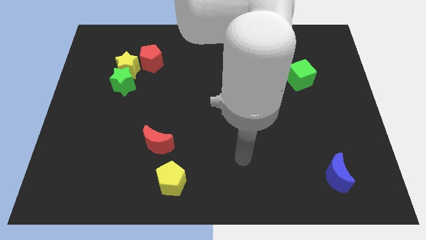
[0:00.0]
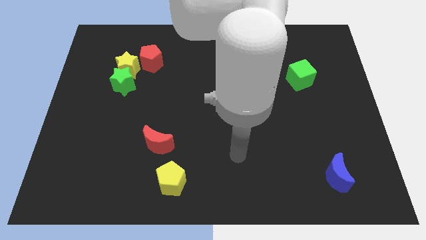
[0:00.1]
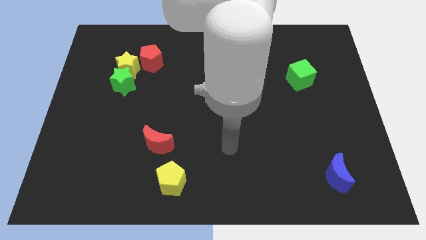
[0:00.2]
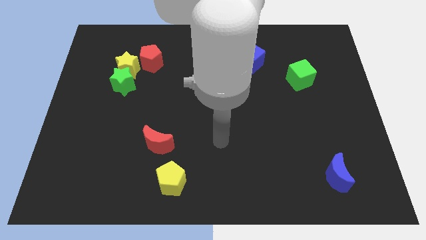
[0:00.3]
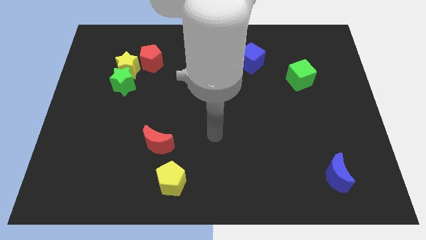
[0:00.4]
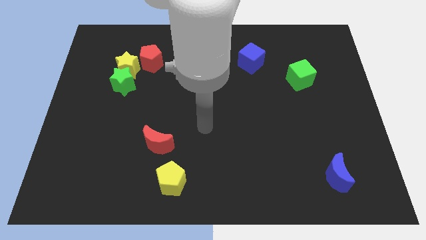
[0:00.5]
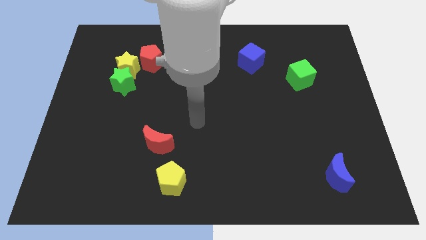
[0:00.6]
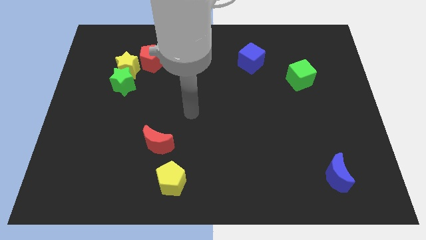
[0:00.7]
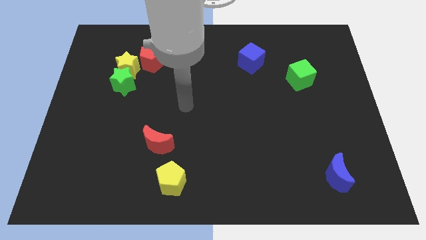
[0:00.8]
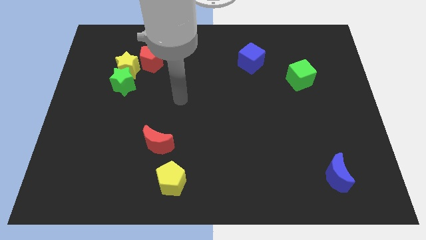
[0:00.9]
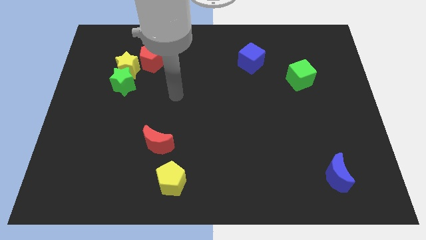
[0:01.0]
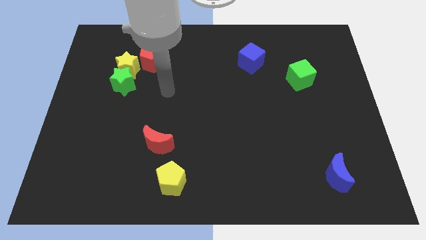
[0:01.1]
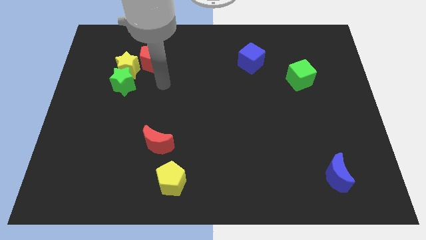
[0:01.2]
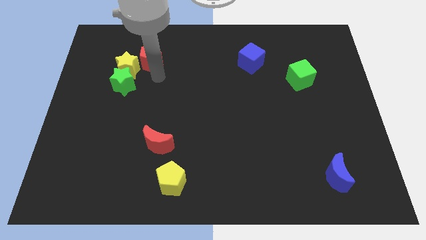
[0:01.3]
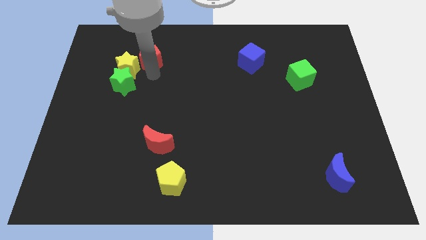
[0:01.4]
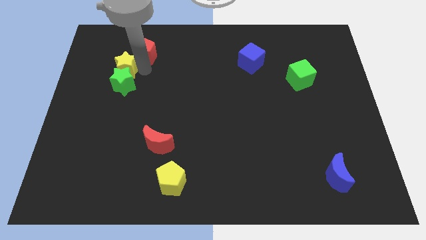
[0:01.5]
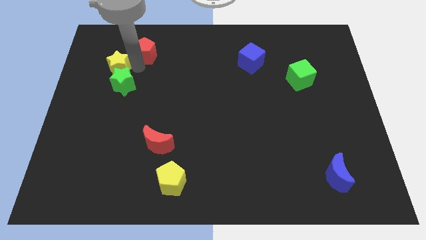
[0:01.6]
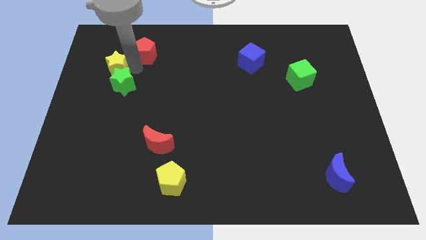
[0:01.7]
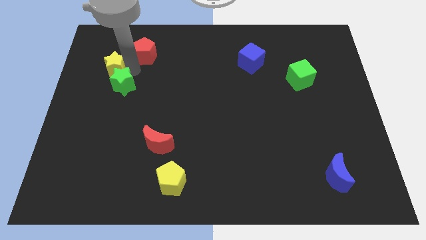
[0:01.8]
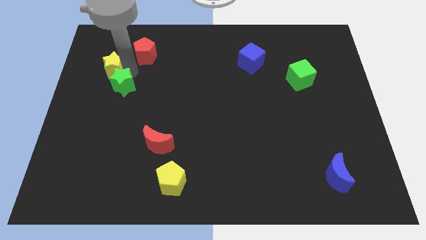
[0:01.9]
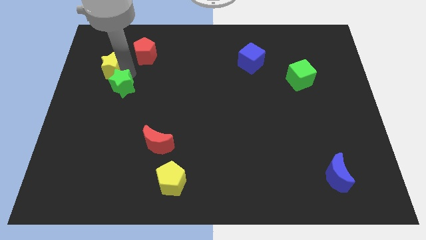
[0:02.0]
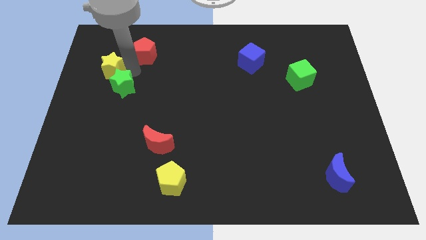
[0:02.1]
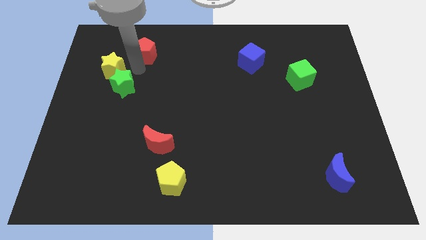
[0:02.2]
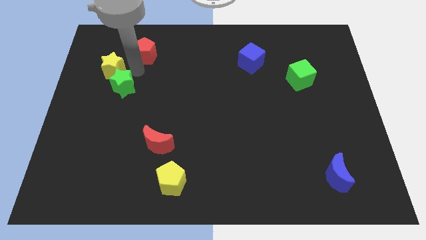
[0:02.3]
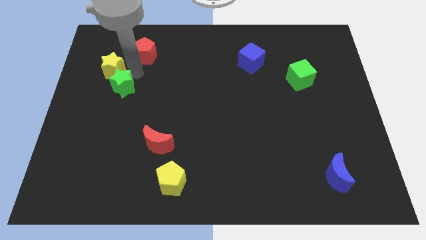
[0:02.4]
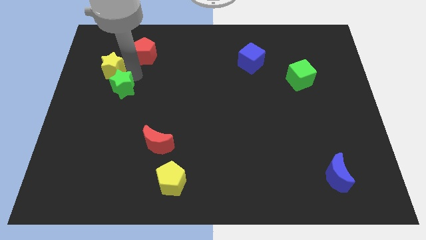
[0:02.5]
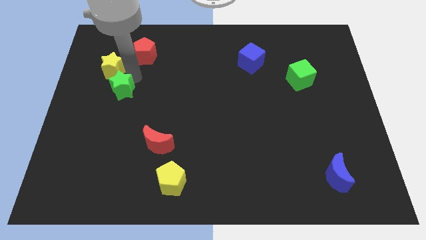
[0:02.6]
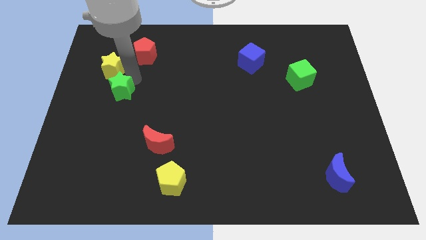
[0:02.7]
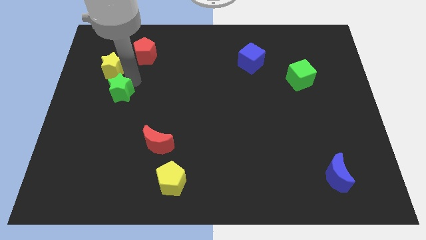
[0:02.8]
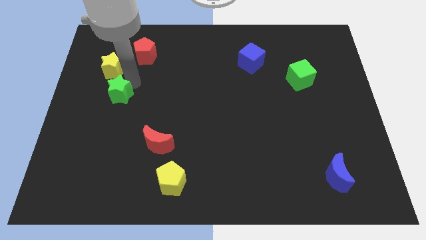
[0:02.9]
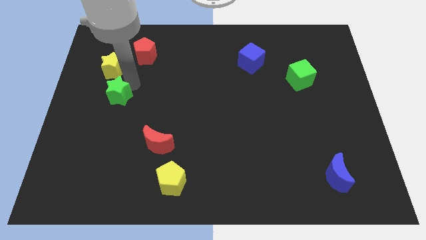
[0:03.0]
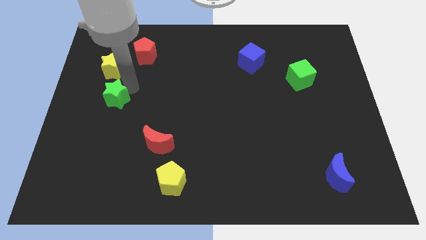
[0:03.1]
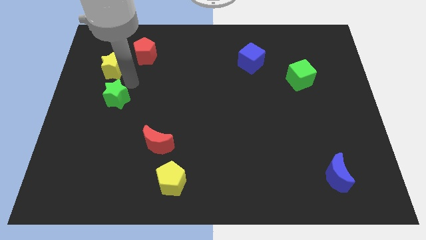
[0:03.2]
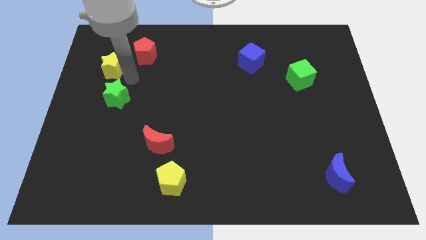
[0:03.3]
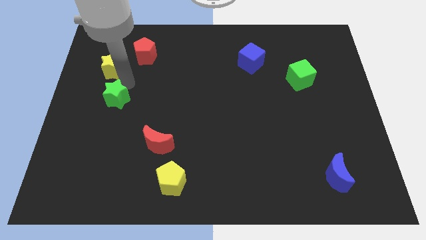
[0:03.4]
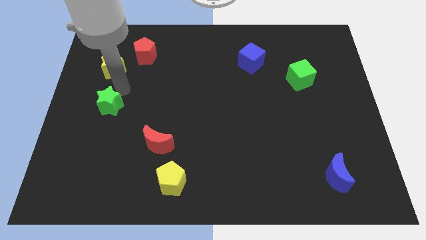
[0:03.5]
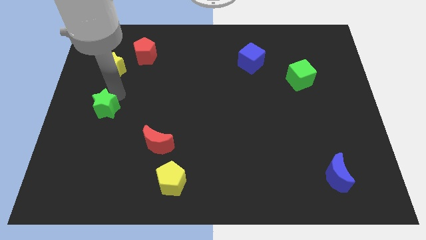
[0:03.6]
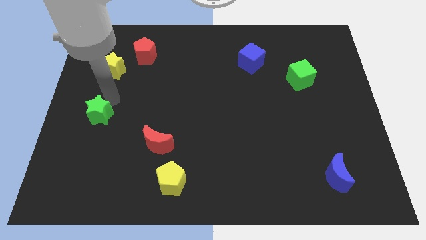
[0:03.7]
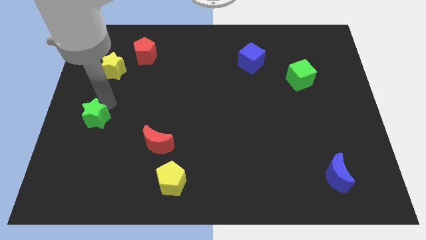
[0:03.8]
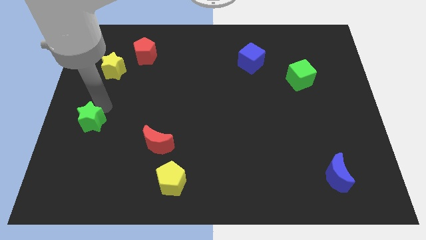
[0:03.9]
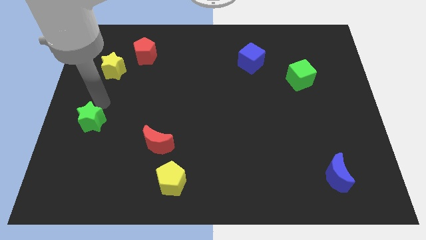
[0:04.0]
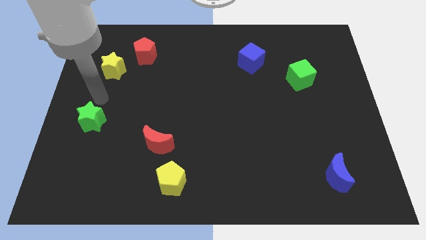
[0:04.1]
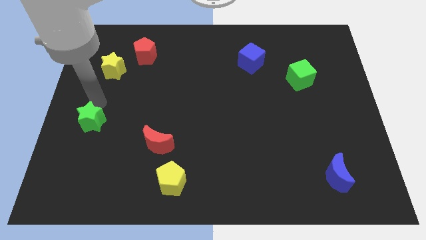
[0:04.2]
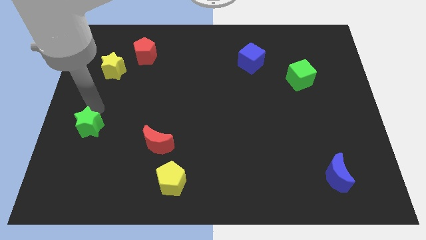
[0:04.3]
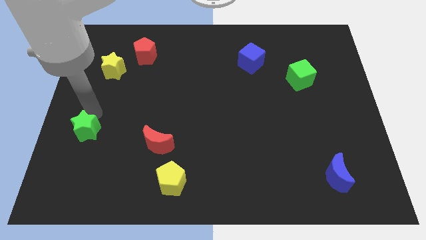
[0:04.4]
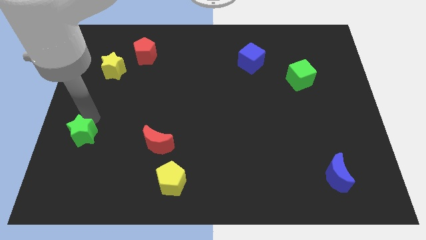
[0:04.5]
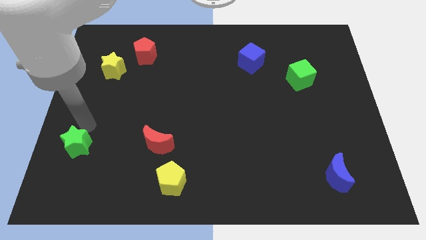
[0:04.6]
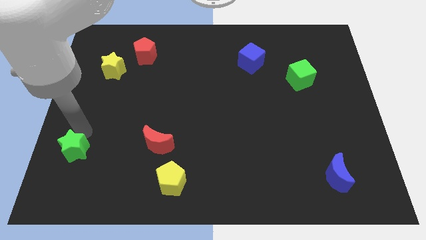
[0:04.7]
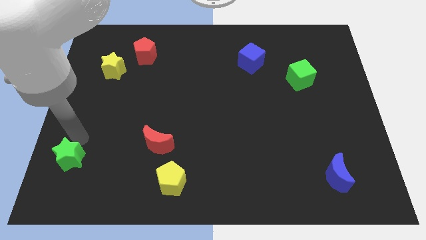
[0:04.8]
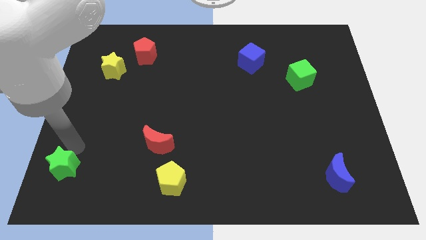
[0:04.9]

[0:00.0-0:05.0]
put the green star to the lower left corner

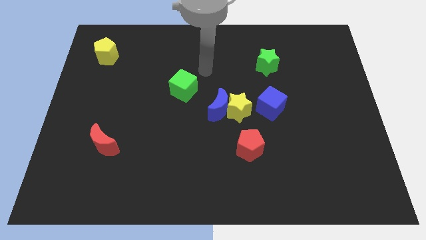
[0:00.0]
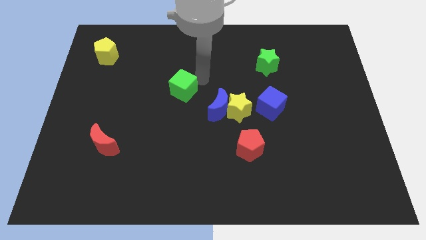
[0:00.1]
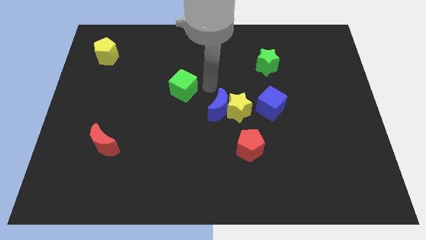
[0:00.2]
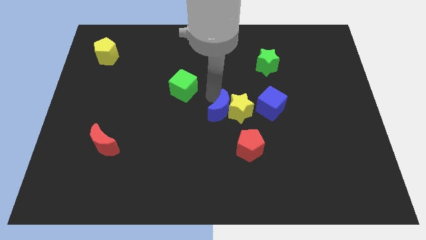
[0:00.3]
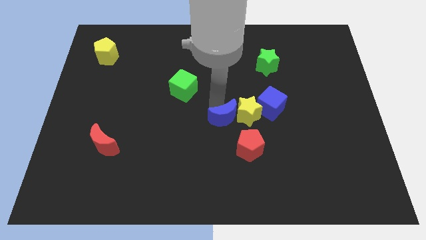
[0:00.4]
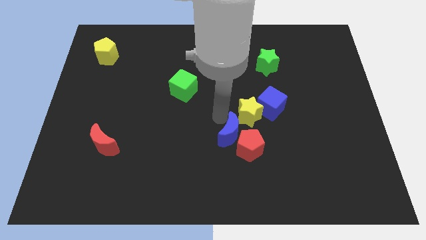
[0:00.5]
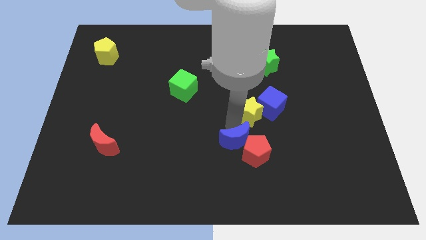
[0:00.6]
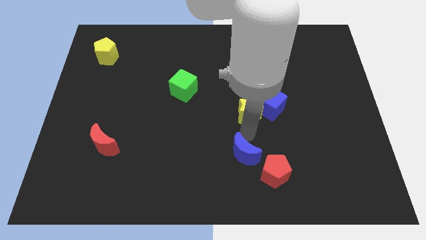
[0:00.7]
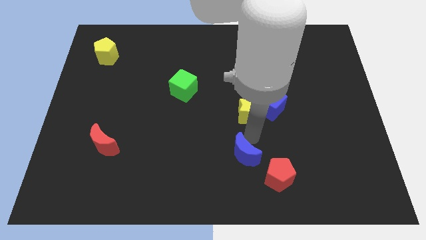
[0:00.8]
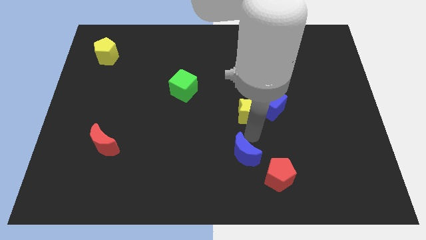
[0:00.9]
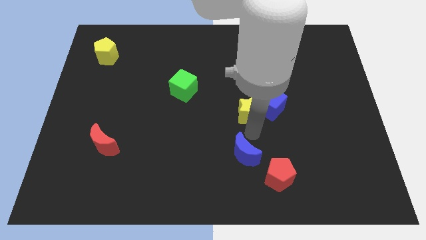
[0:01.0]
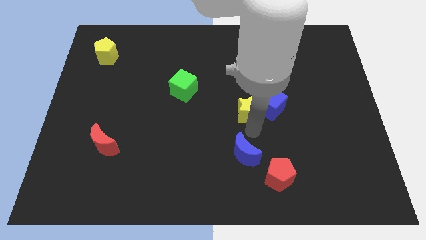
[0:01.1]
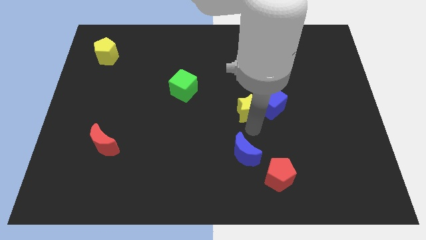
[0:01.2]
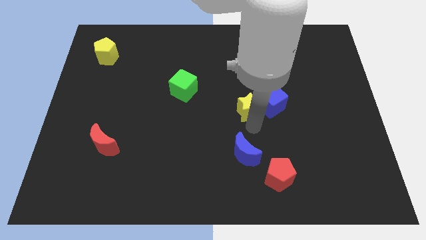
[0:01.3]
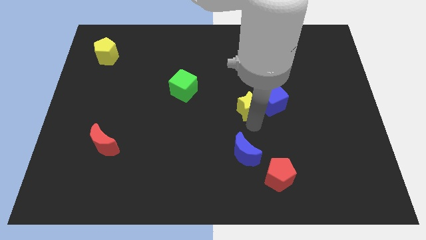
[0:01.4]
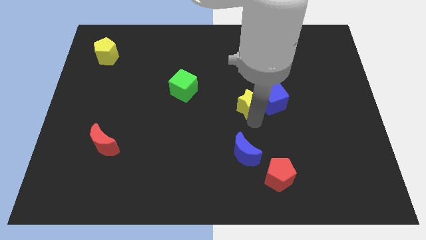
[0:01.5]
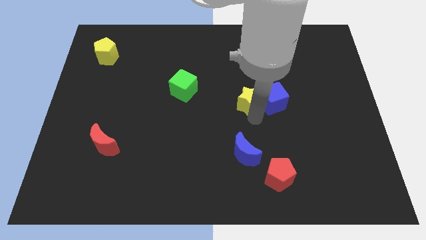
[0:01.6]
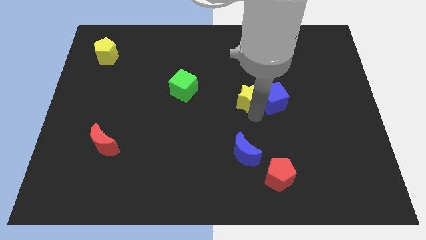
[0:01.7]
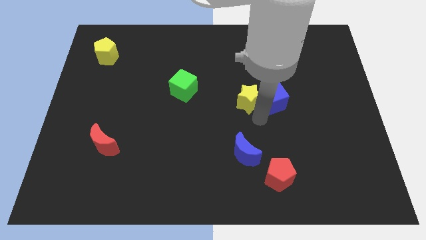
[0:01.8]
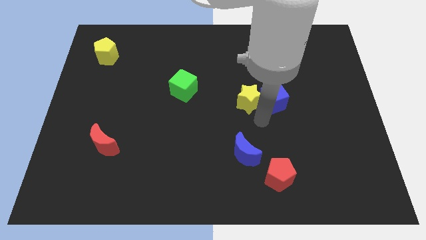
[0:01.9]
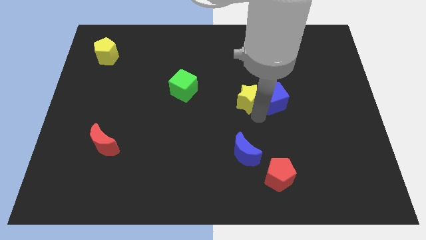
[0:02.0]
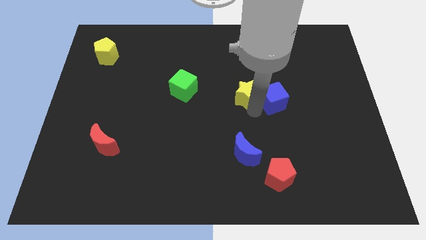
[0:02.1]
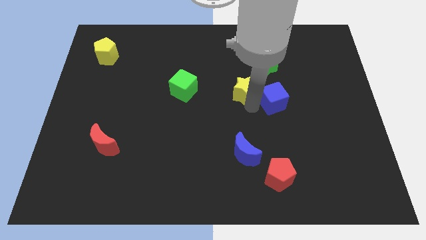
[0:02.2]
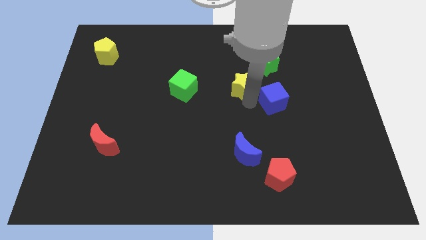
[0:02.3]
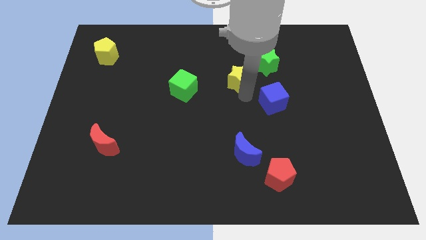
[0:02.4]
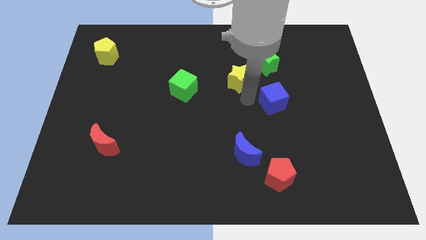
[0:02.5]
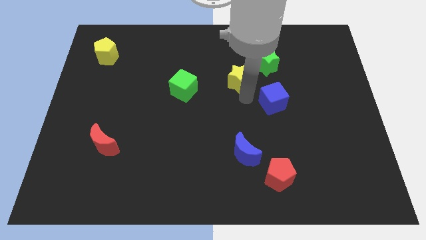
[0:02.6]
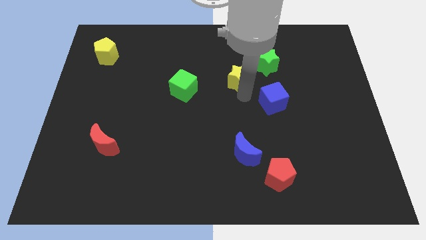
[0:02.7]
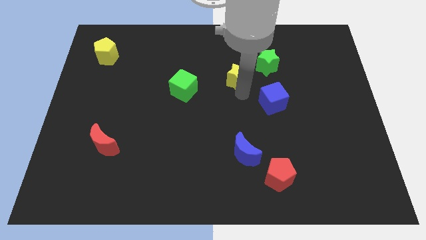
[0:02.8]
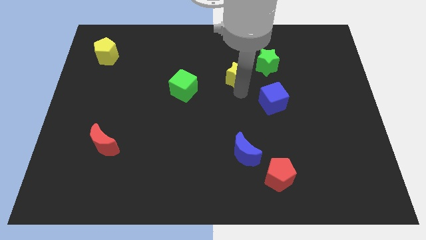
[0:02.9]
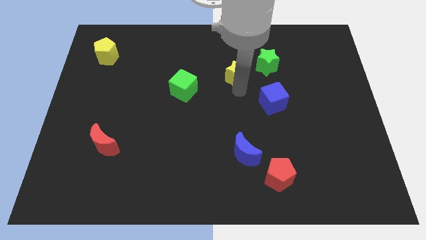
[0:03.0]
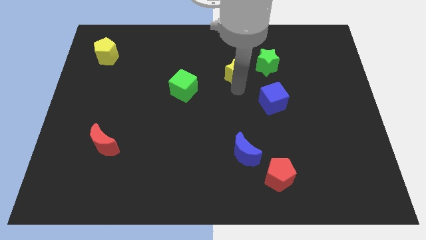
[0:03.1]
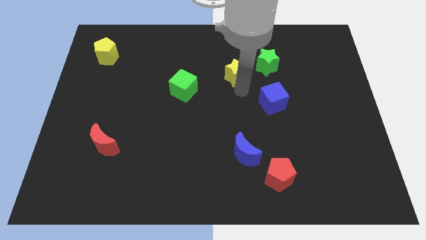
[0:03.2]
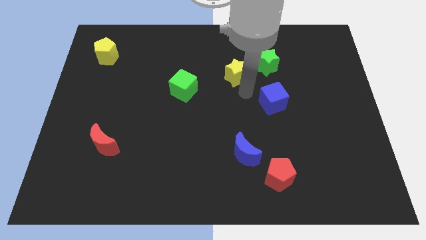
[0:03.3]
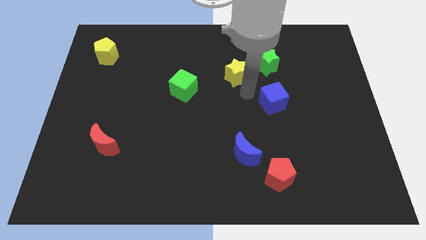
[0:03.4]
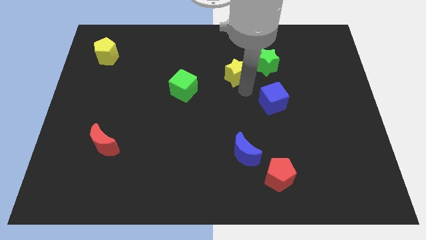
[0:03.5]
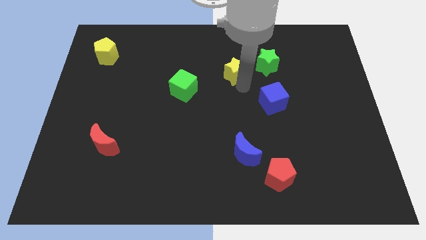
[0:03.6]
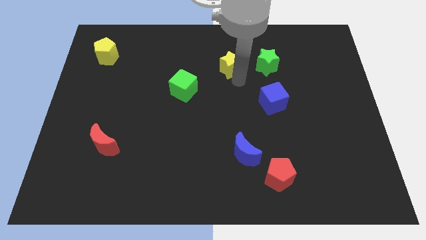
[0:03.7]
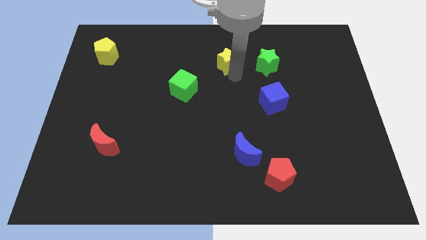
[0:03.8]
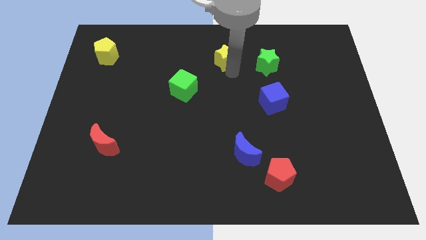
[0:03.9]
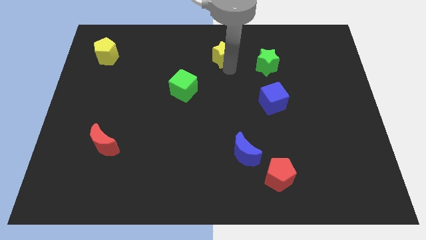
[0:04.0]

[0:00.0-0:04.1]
move the yellow star to the towards your base
